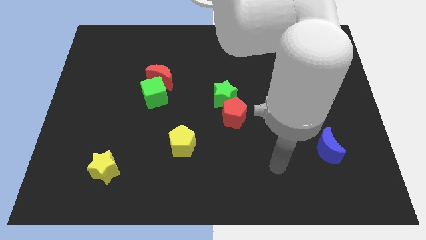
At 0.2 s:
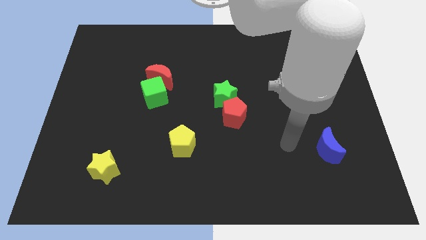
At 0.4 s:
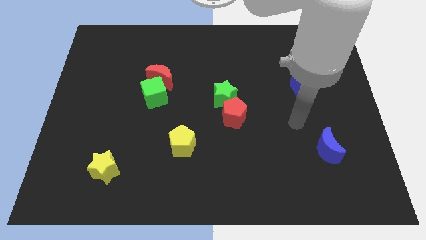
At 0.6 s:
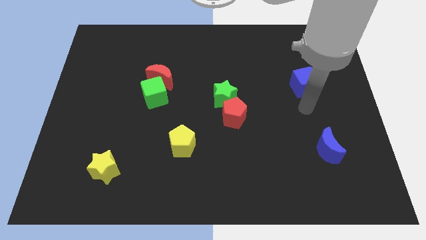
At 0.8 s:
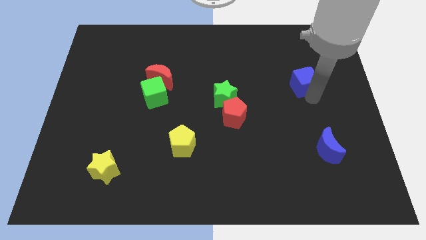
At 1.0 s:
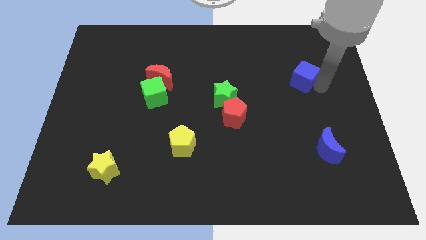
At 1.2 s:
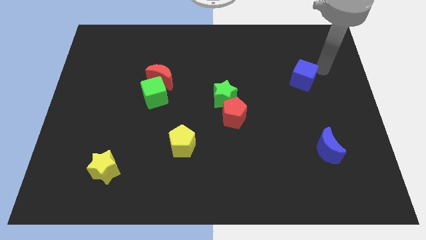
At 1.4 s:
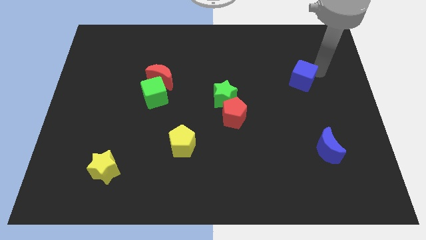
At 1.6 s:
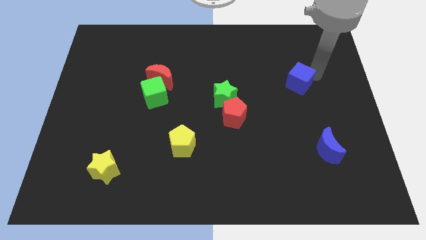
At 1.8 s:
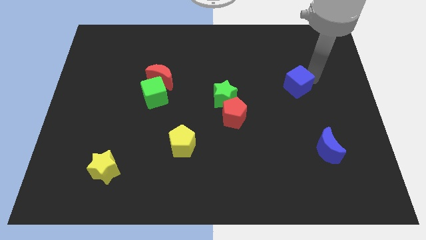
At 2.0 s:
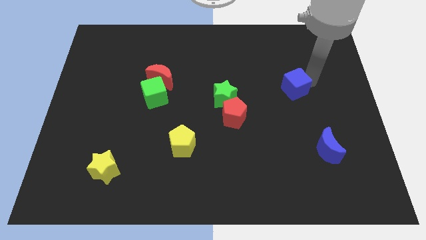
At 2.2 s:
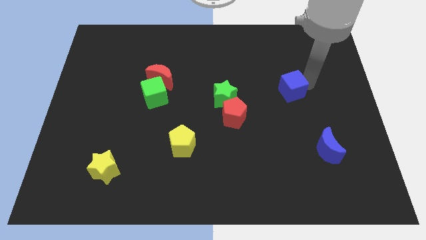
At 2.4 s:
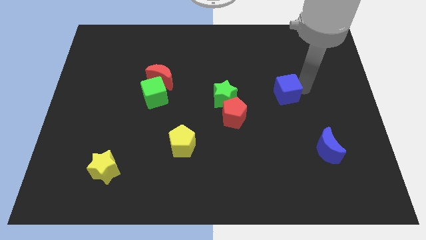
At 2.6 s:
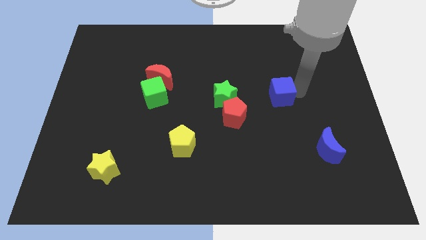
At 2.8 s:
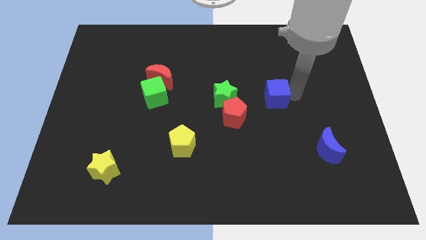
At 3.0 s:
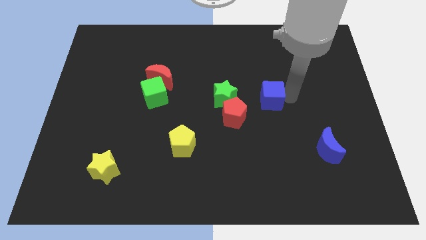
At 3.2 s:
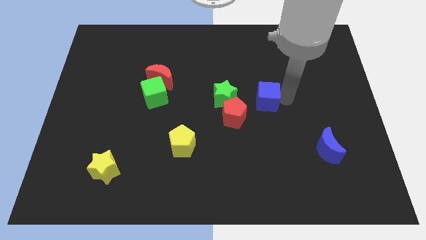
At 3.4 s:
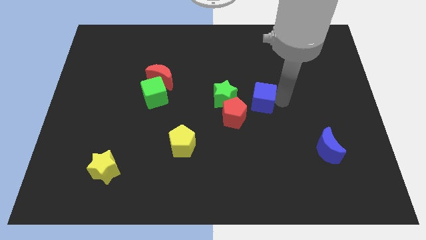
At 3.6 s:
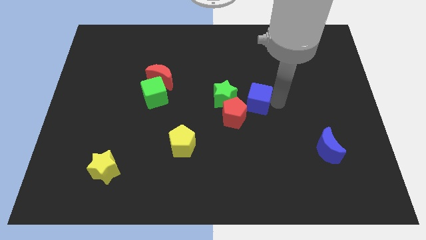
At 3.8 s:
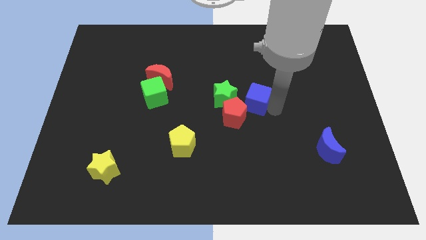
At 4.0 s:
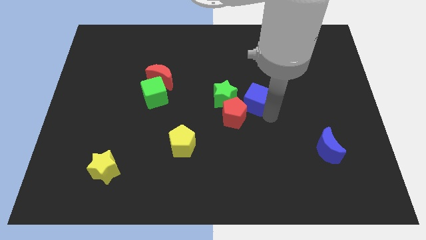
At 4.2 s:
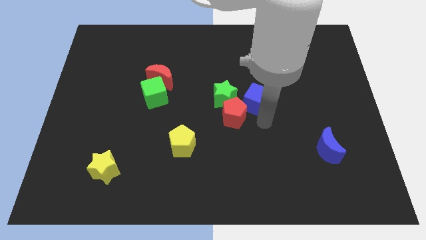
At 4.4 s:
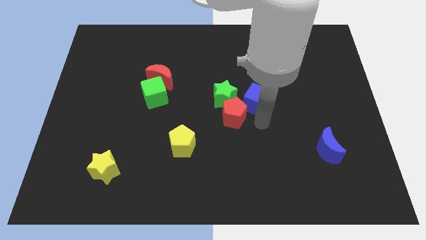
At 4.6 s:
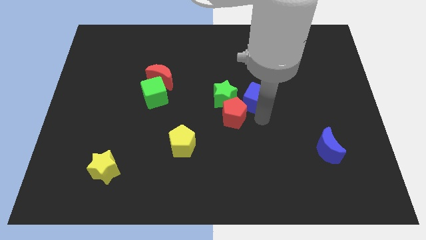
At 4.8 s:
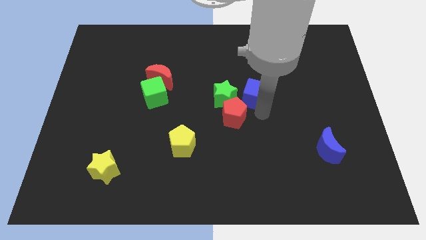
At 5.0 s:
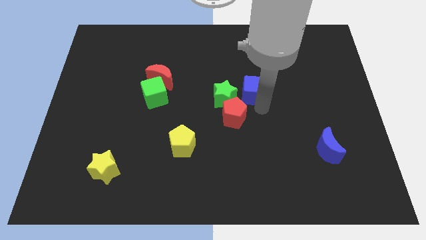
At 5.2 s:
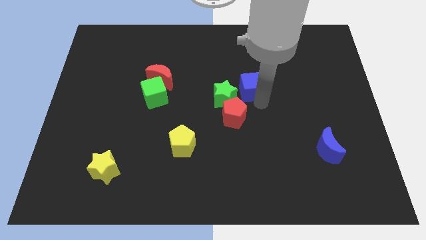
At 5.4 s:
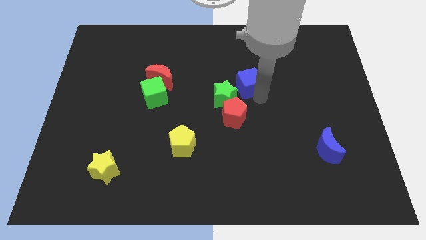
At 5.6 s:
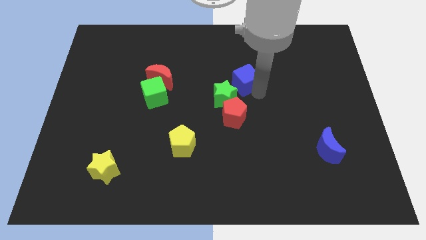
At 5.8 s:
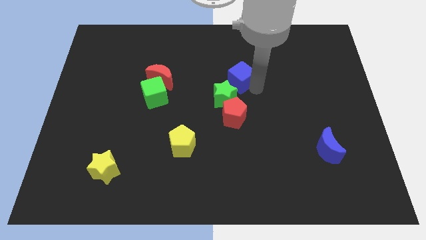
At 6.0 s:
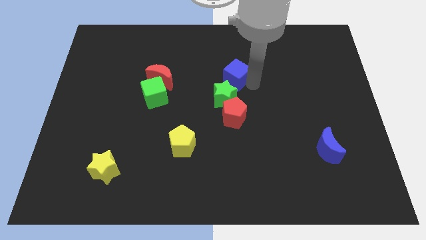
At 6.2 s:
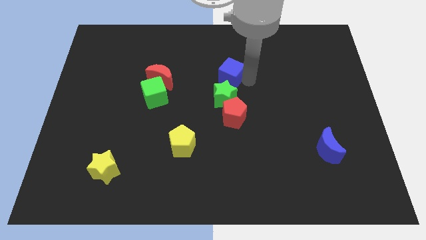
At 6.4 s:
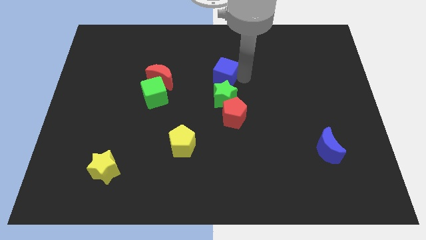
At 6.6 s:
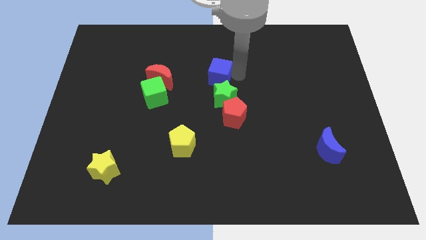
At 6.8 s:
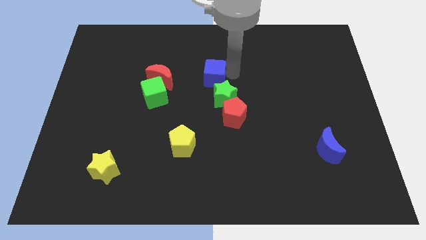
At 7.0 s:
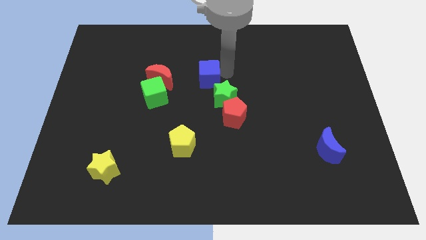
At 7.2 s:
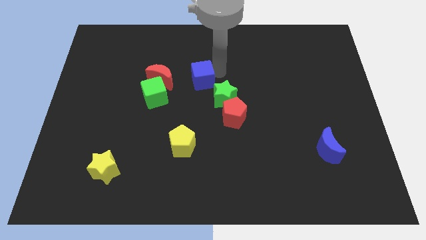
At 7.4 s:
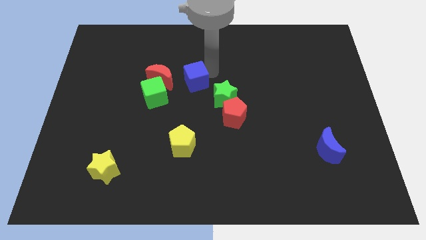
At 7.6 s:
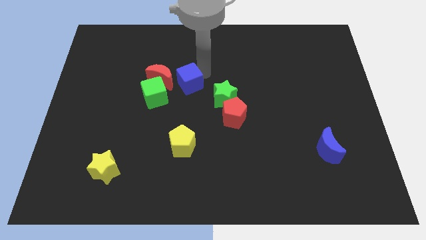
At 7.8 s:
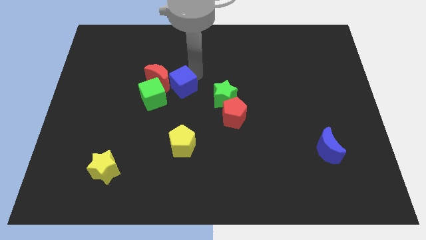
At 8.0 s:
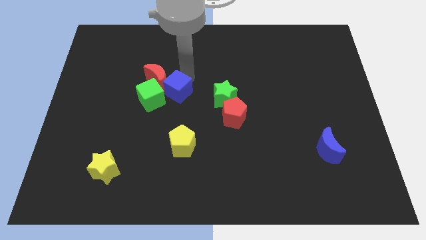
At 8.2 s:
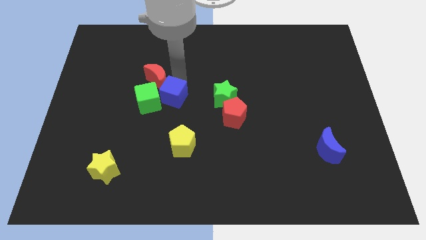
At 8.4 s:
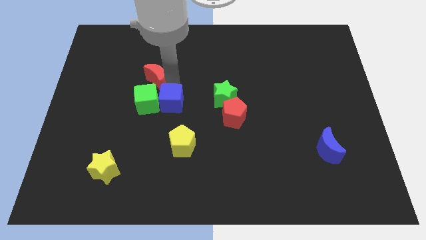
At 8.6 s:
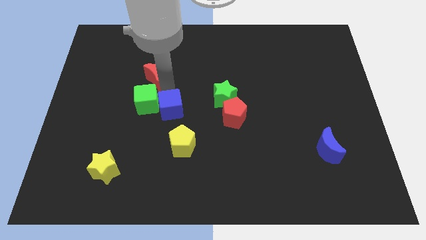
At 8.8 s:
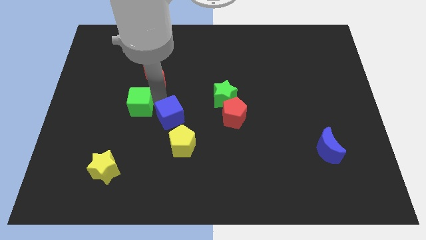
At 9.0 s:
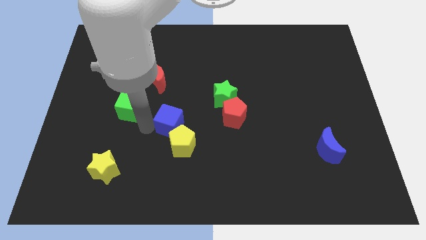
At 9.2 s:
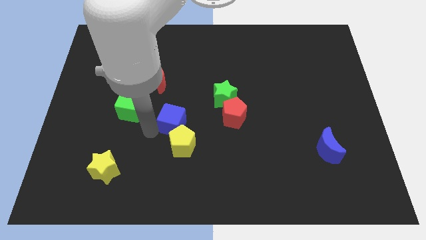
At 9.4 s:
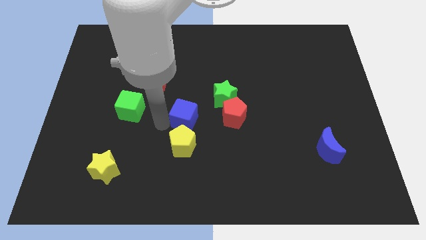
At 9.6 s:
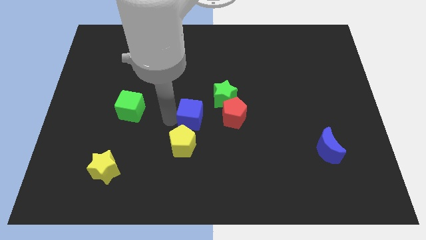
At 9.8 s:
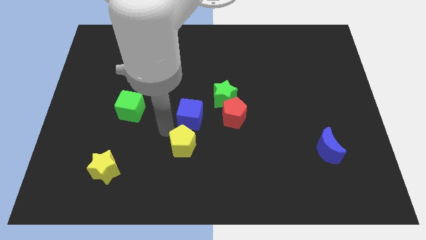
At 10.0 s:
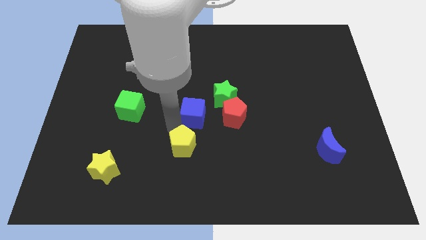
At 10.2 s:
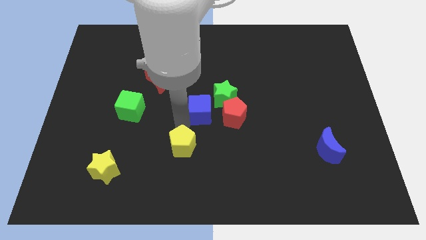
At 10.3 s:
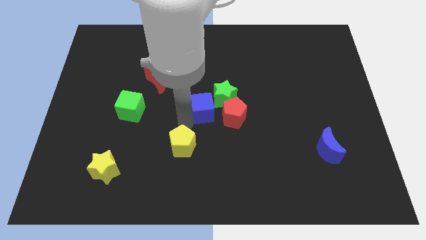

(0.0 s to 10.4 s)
slide the blue cube towards the green star

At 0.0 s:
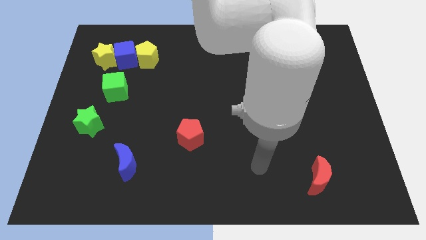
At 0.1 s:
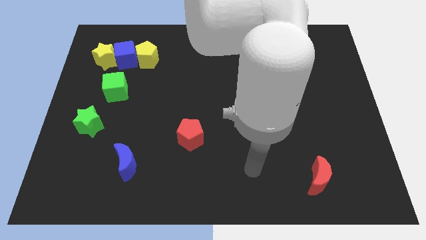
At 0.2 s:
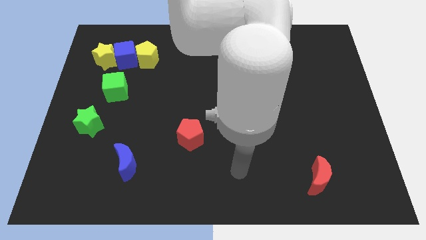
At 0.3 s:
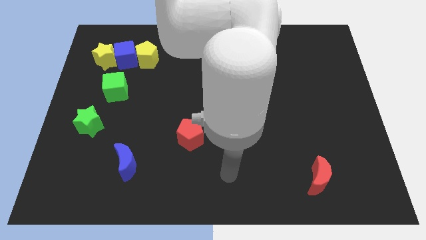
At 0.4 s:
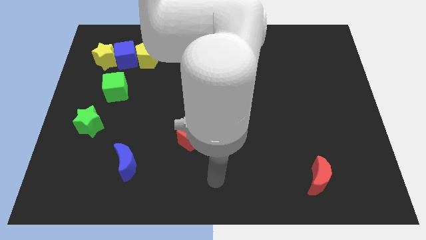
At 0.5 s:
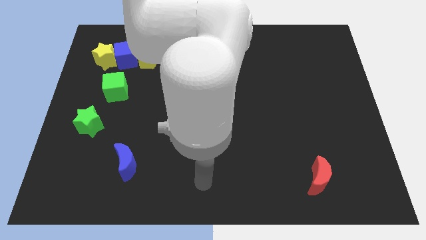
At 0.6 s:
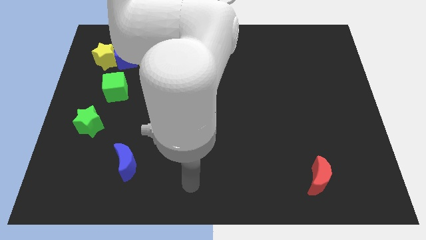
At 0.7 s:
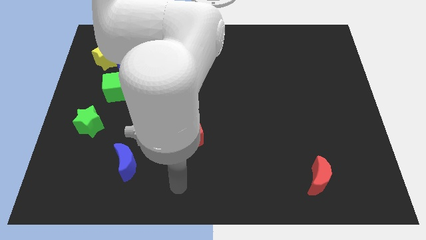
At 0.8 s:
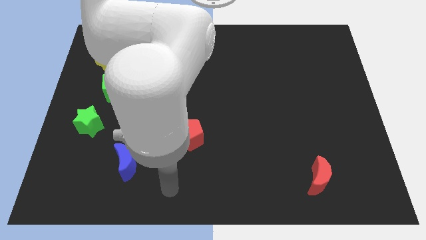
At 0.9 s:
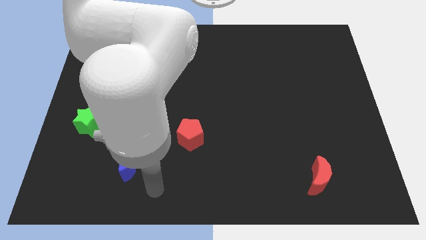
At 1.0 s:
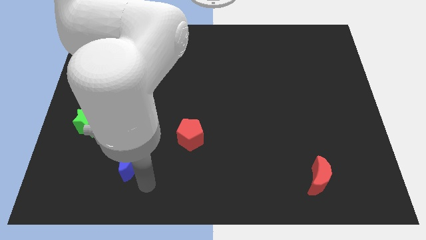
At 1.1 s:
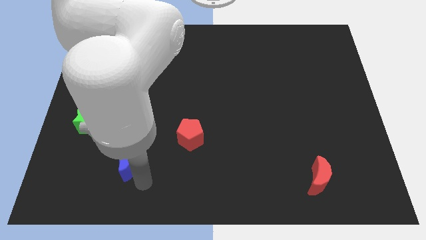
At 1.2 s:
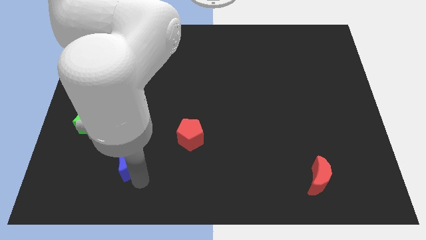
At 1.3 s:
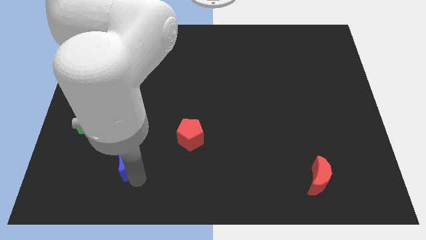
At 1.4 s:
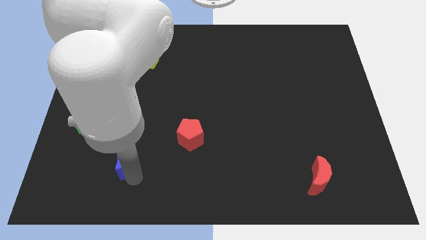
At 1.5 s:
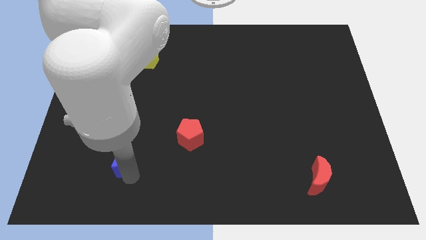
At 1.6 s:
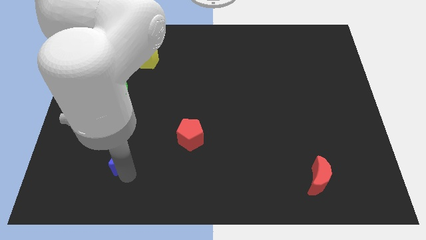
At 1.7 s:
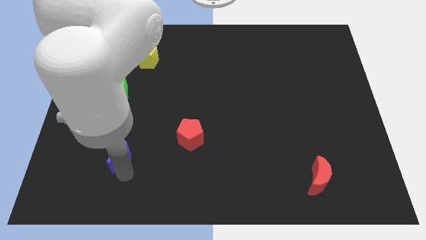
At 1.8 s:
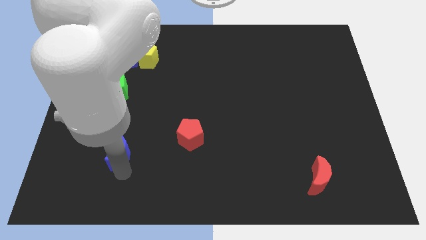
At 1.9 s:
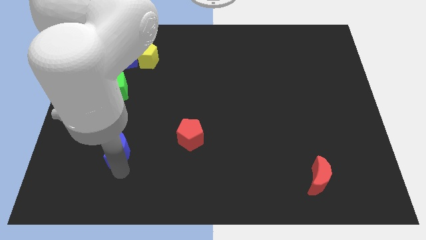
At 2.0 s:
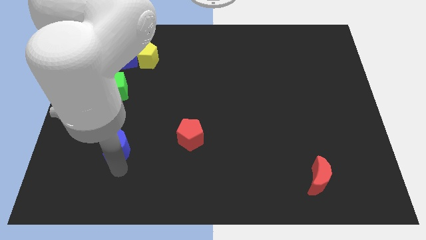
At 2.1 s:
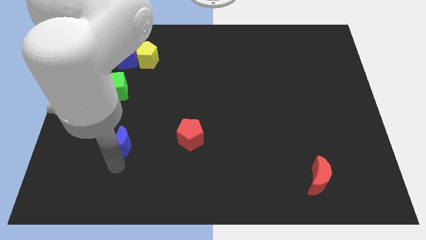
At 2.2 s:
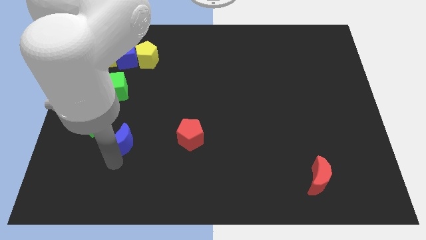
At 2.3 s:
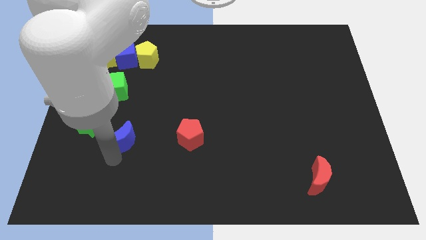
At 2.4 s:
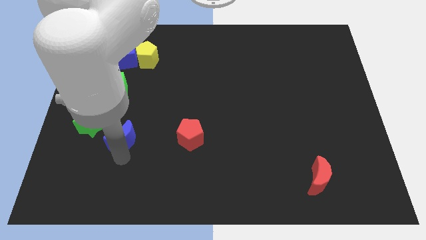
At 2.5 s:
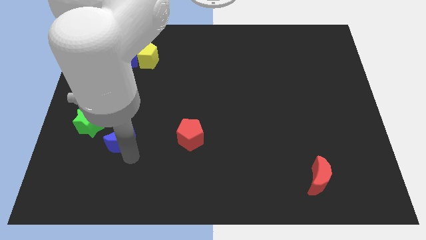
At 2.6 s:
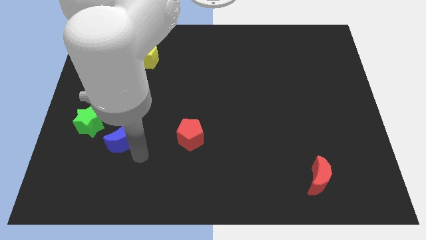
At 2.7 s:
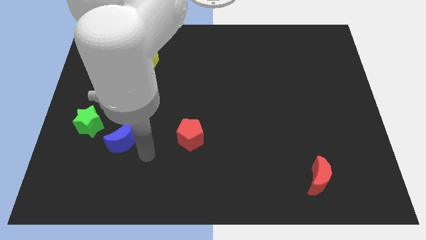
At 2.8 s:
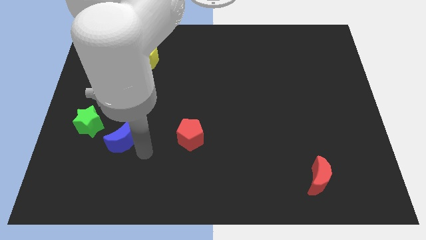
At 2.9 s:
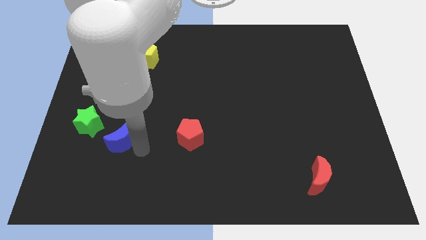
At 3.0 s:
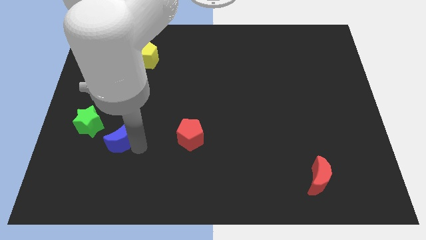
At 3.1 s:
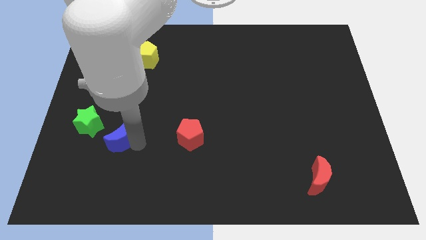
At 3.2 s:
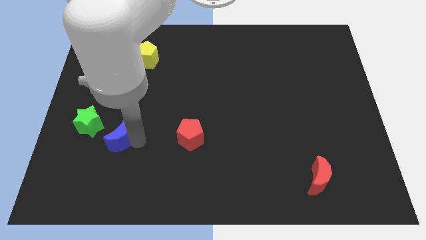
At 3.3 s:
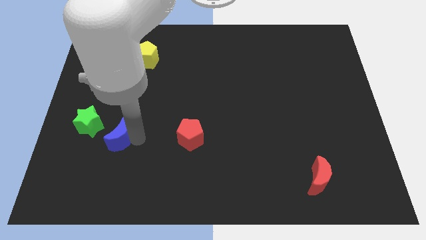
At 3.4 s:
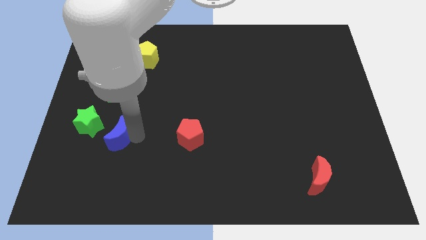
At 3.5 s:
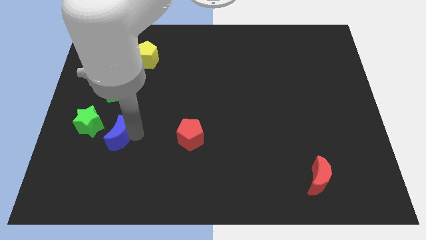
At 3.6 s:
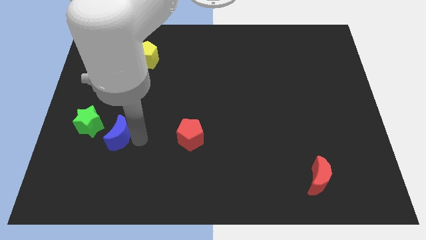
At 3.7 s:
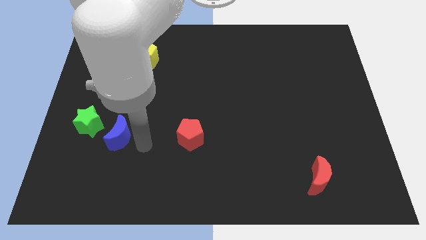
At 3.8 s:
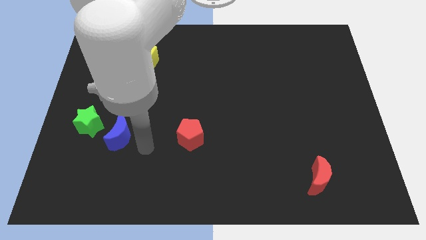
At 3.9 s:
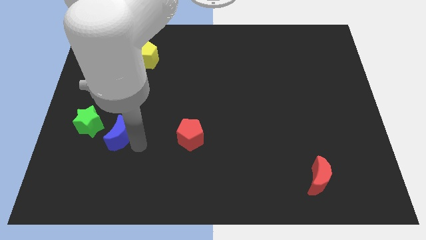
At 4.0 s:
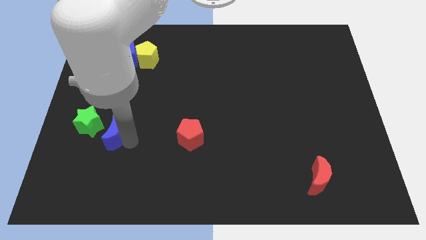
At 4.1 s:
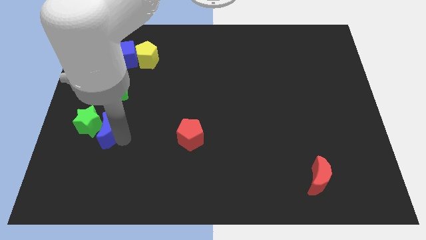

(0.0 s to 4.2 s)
put the blue moon next to the green star
